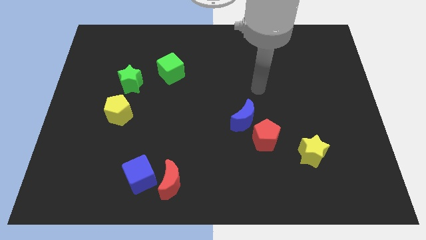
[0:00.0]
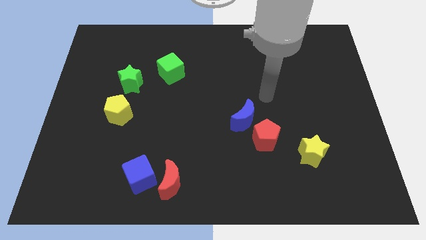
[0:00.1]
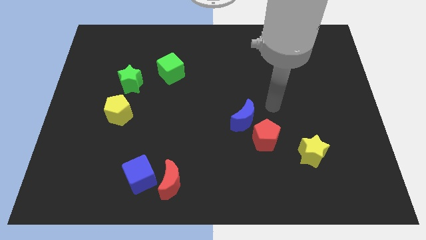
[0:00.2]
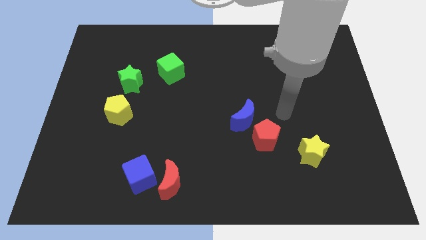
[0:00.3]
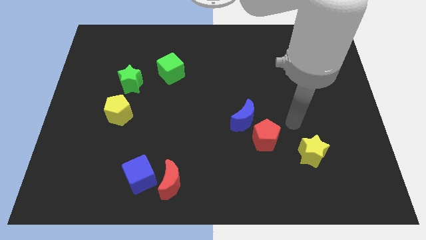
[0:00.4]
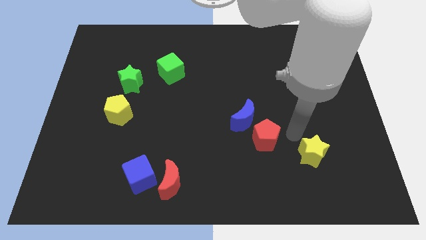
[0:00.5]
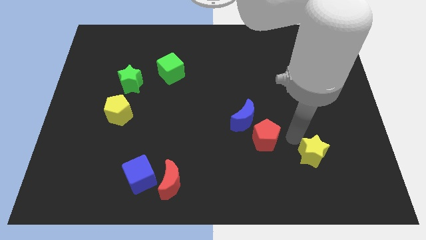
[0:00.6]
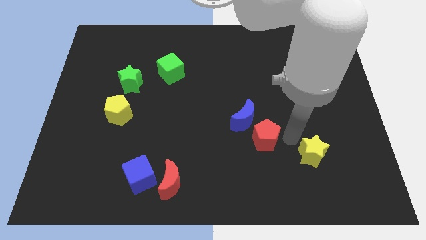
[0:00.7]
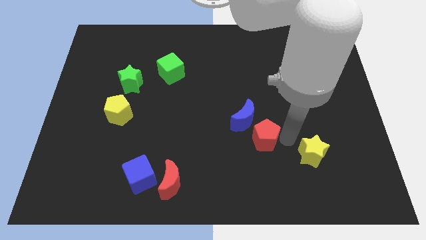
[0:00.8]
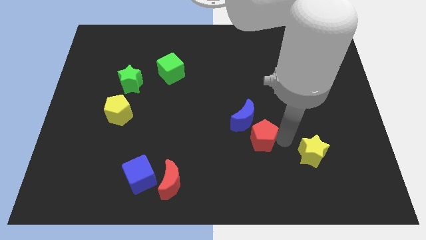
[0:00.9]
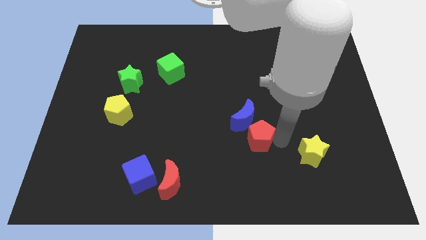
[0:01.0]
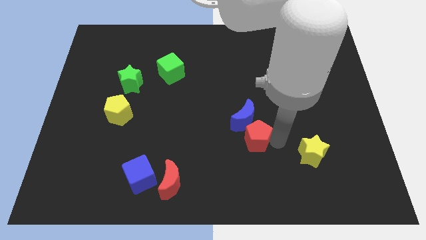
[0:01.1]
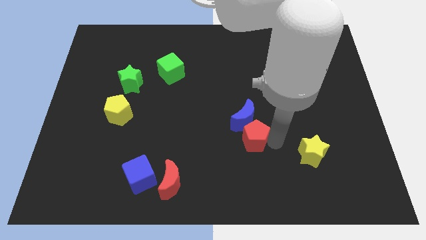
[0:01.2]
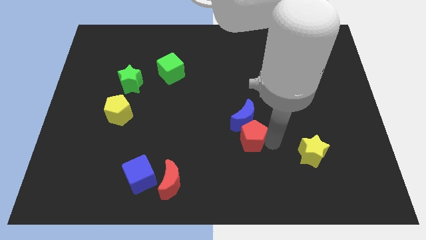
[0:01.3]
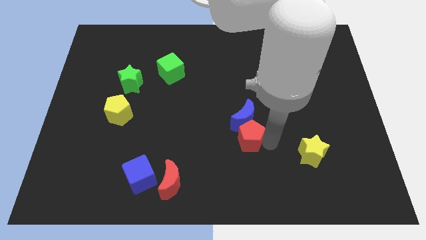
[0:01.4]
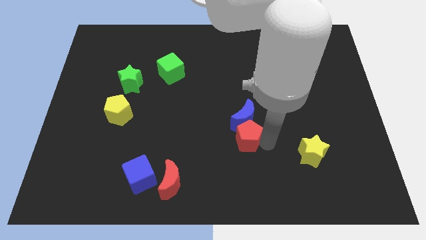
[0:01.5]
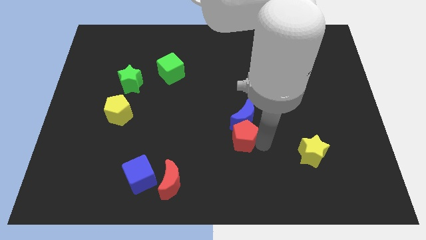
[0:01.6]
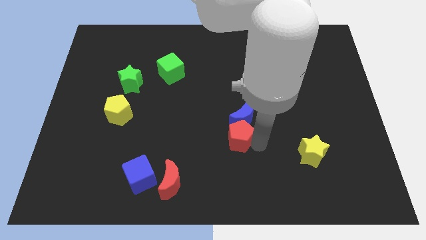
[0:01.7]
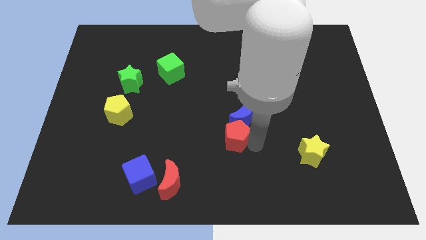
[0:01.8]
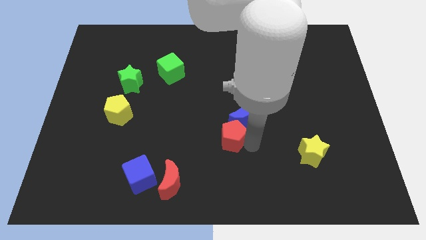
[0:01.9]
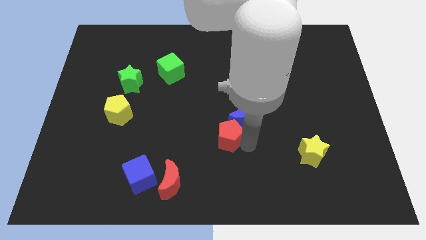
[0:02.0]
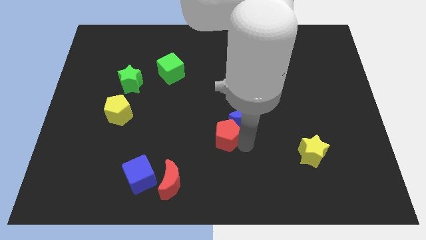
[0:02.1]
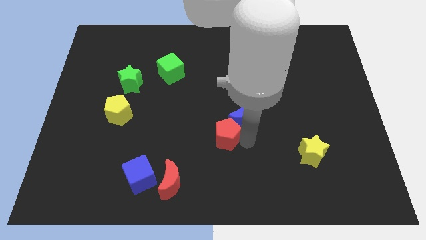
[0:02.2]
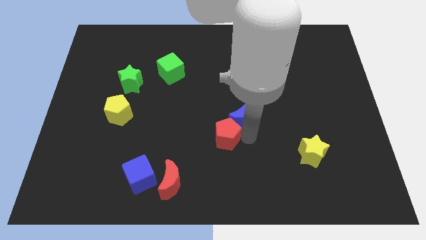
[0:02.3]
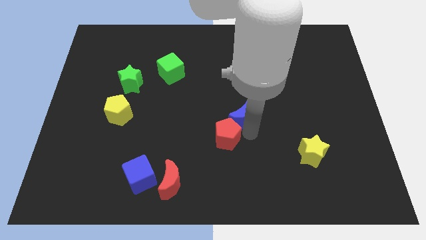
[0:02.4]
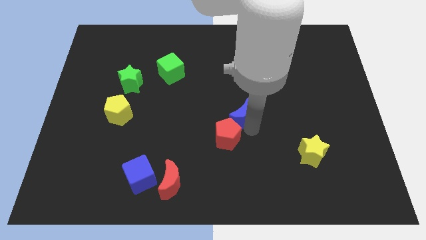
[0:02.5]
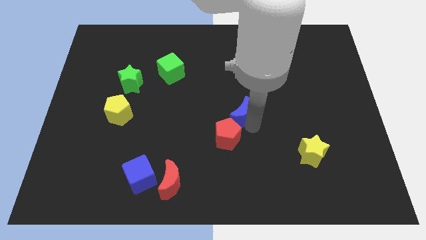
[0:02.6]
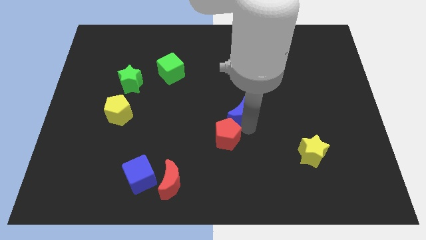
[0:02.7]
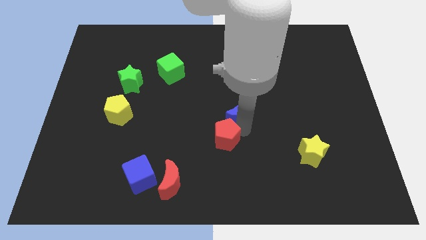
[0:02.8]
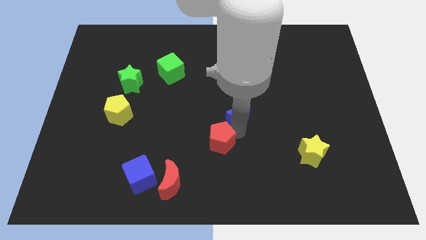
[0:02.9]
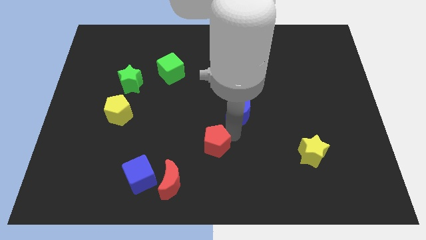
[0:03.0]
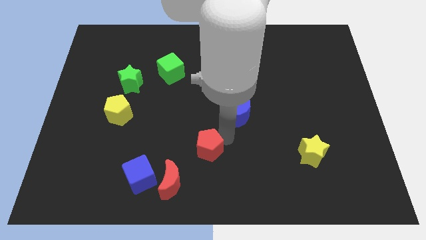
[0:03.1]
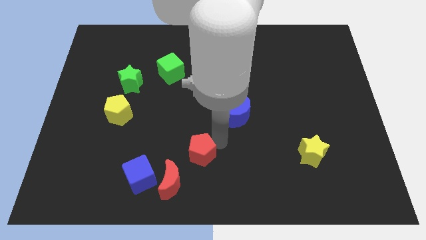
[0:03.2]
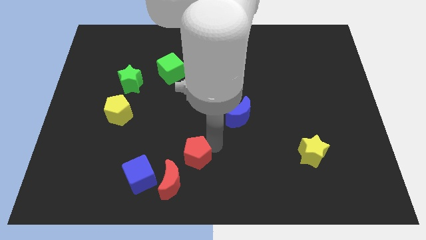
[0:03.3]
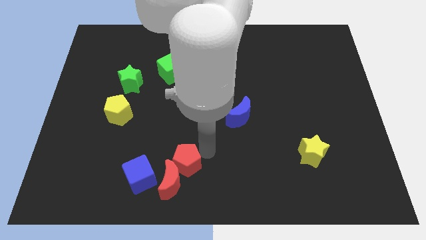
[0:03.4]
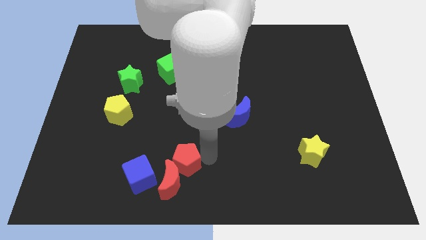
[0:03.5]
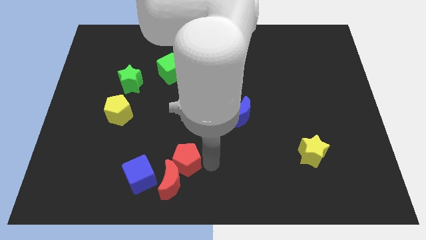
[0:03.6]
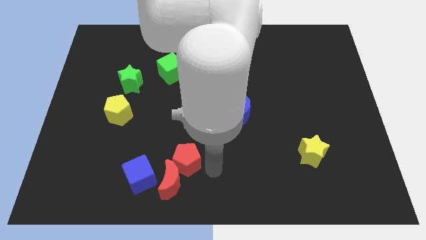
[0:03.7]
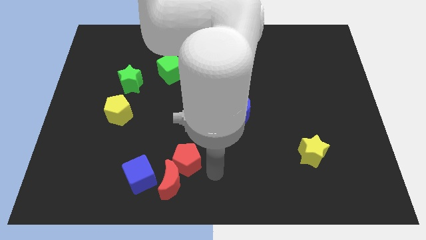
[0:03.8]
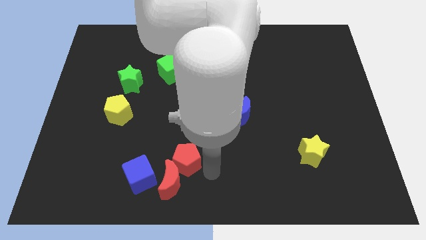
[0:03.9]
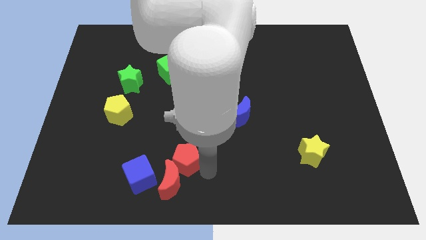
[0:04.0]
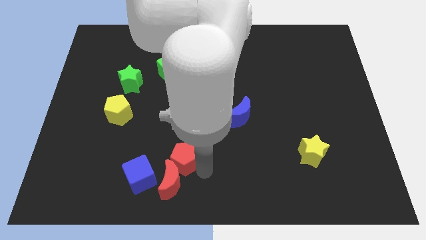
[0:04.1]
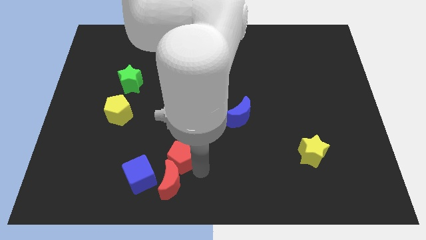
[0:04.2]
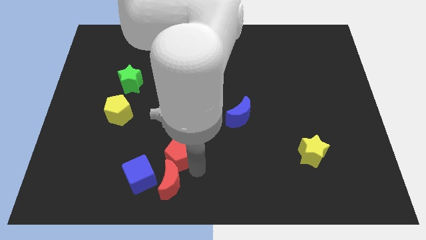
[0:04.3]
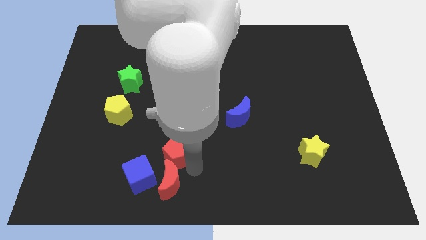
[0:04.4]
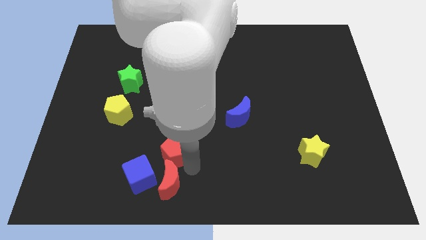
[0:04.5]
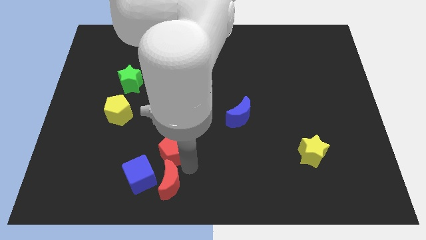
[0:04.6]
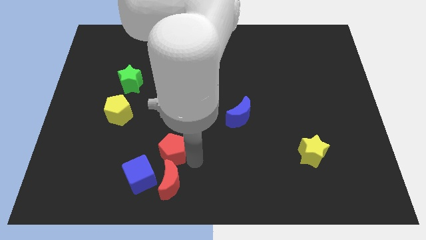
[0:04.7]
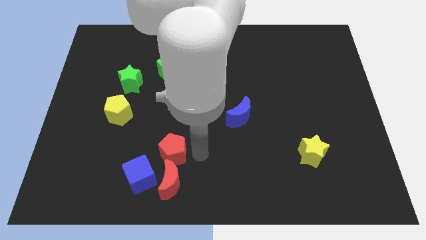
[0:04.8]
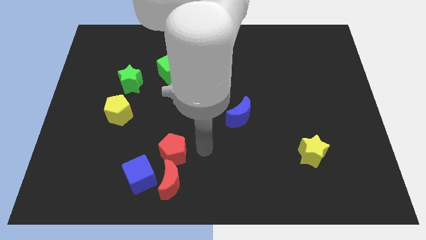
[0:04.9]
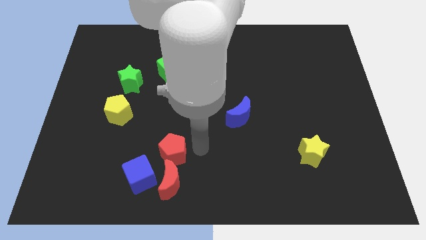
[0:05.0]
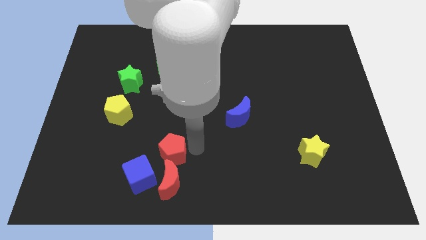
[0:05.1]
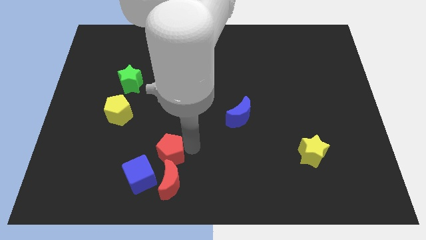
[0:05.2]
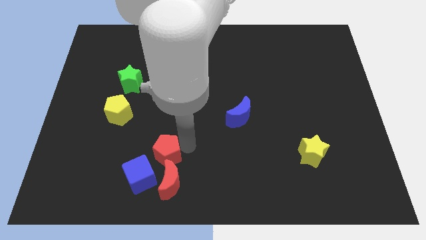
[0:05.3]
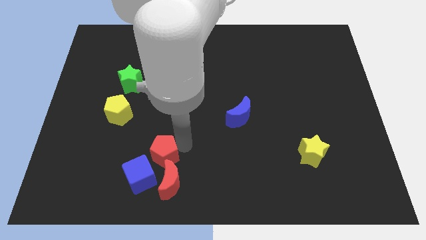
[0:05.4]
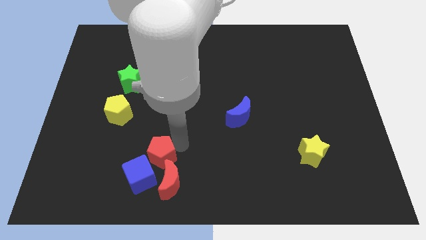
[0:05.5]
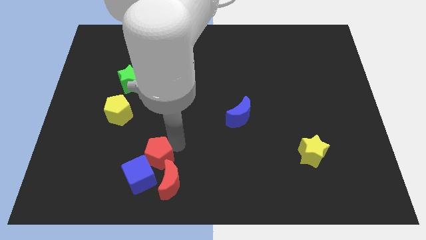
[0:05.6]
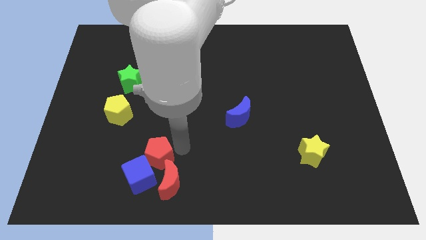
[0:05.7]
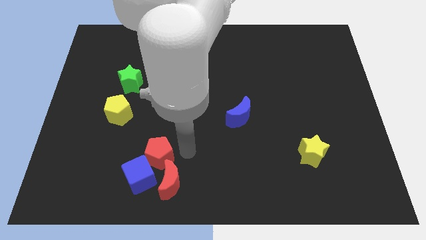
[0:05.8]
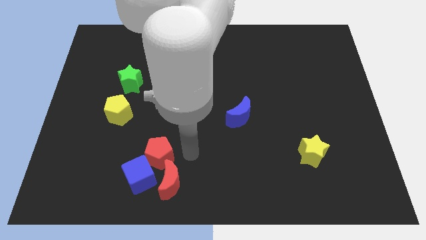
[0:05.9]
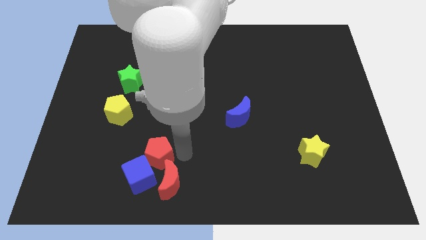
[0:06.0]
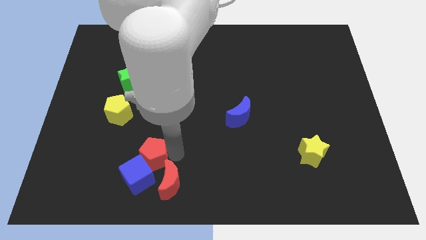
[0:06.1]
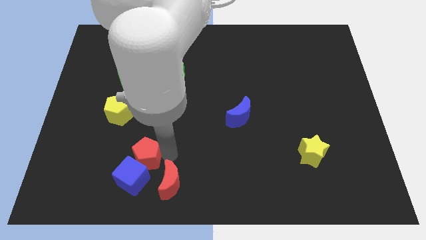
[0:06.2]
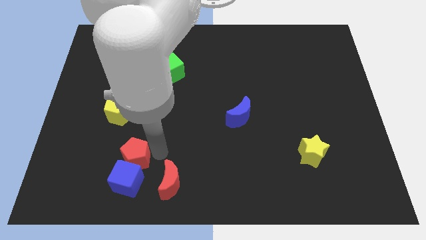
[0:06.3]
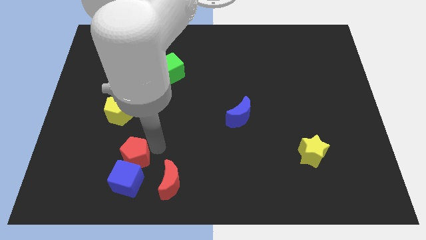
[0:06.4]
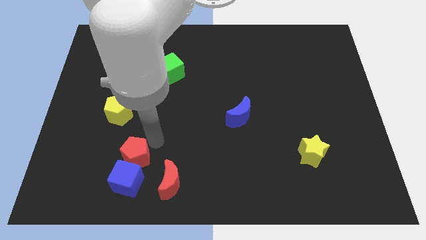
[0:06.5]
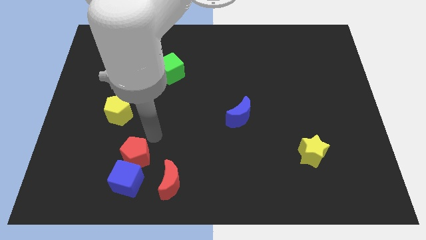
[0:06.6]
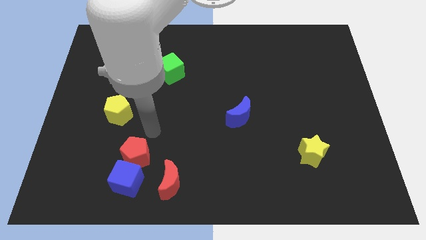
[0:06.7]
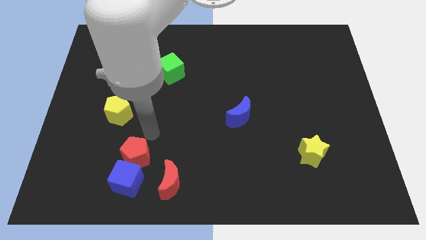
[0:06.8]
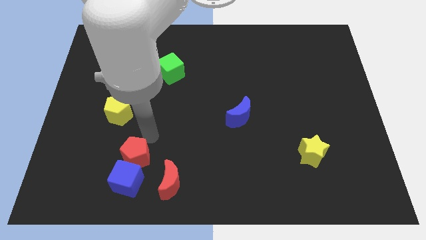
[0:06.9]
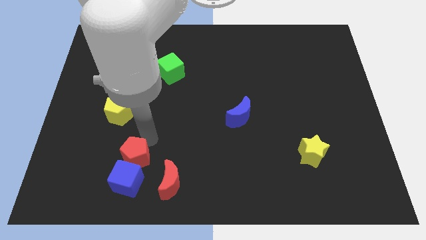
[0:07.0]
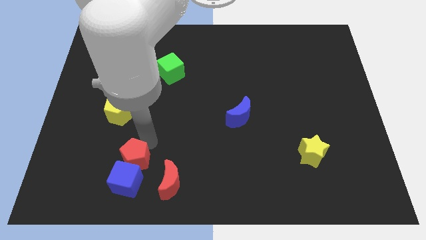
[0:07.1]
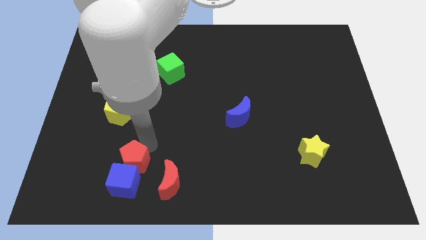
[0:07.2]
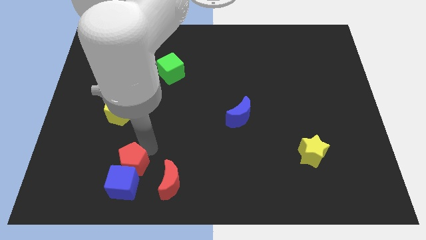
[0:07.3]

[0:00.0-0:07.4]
push the red pentagon just left of the red moon
